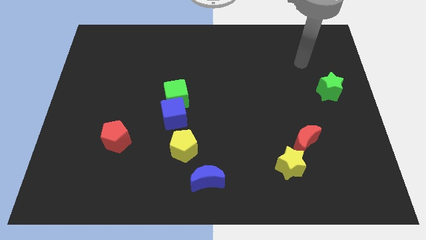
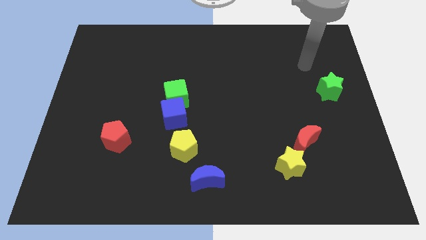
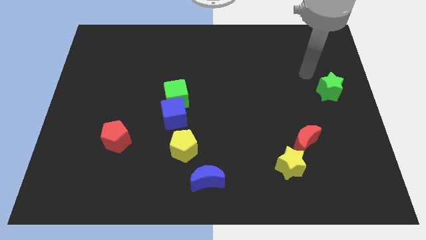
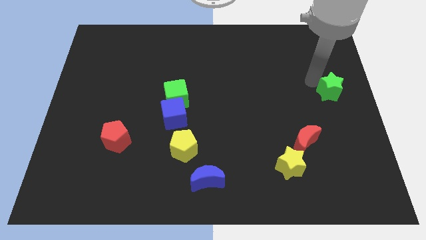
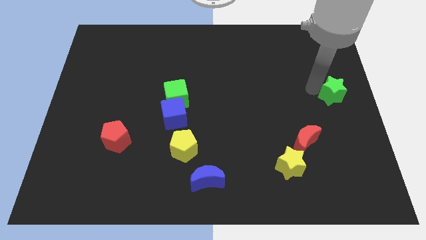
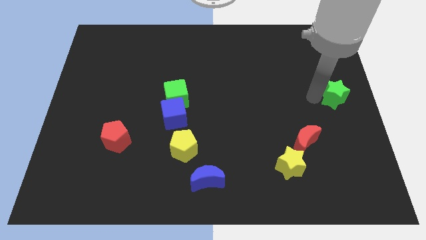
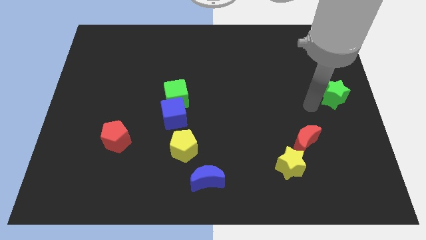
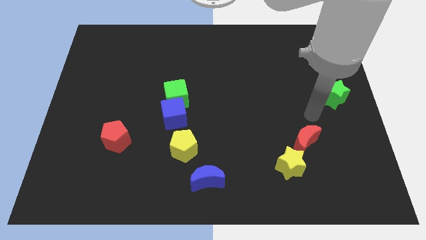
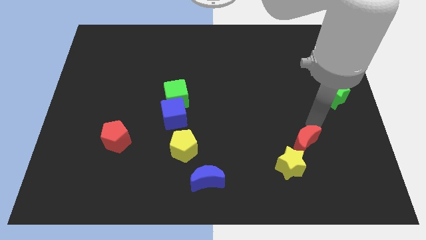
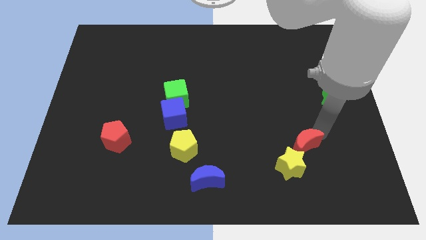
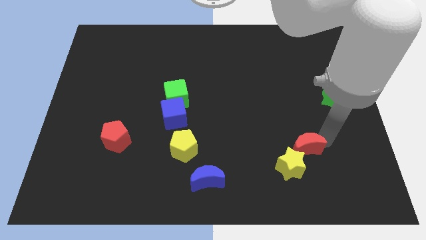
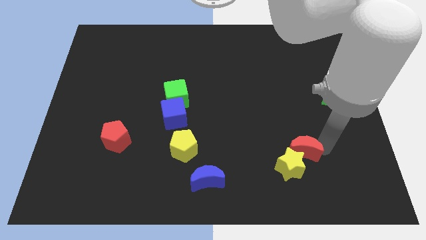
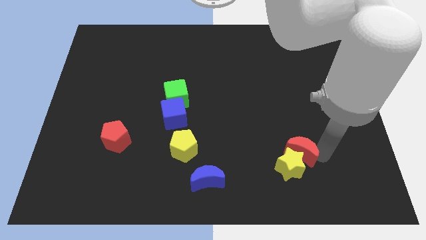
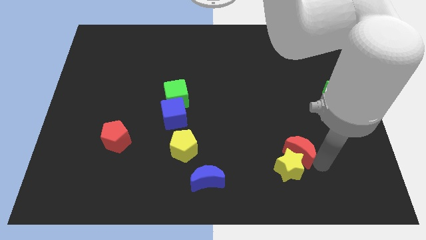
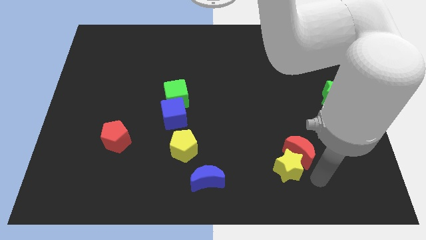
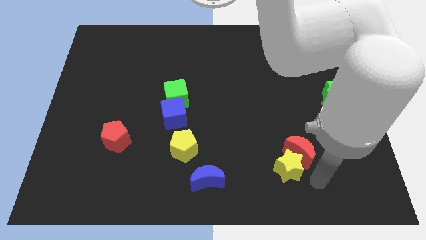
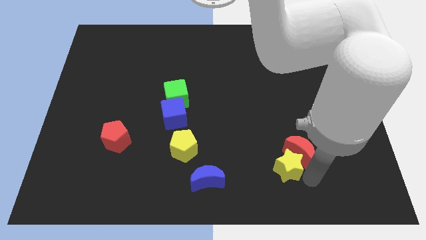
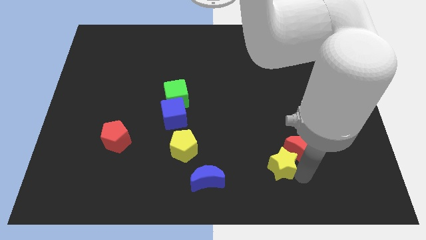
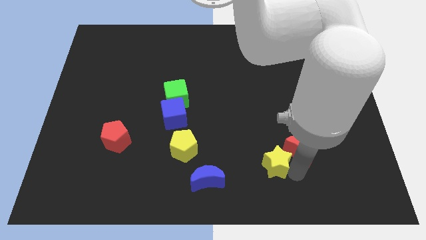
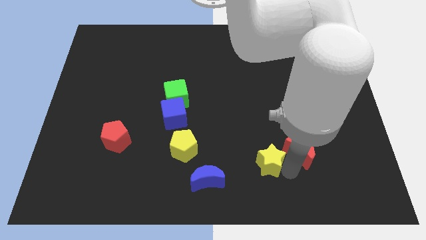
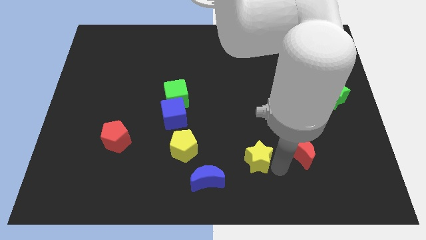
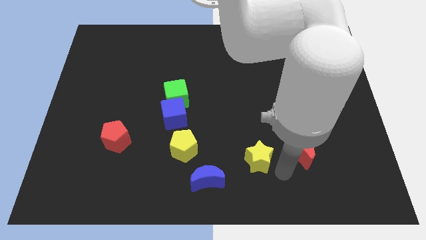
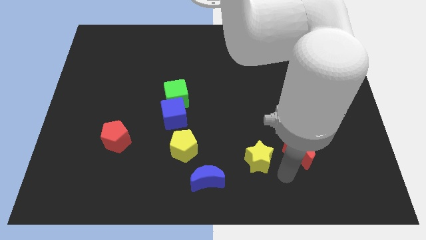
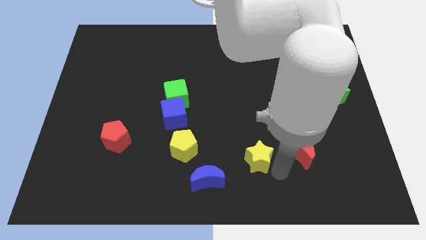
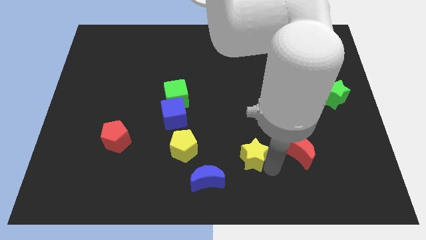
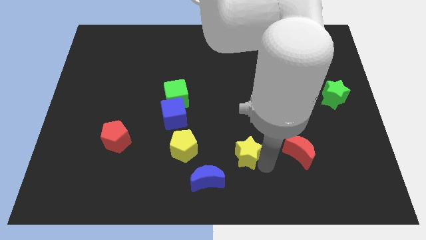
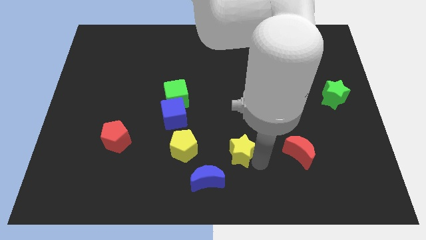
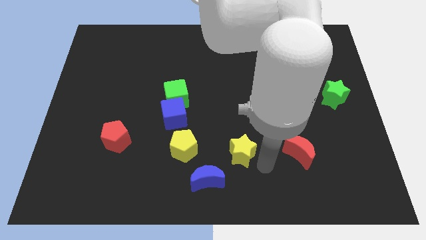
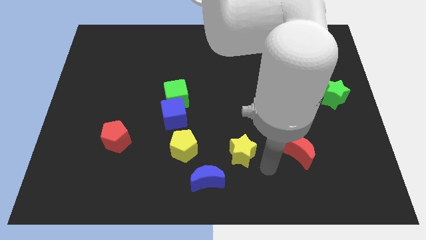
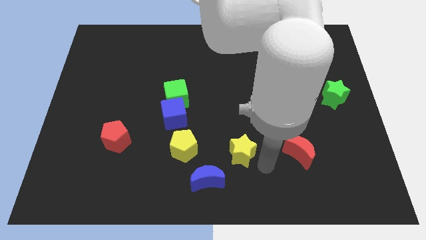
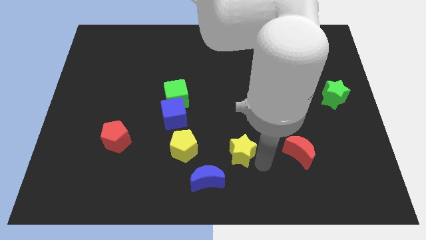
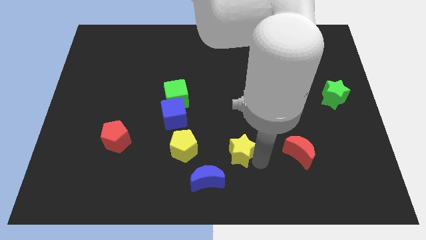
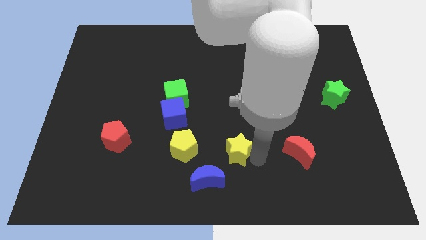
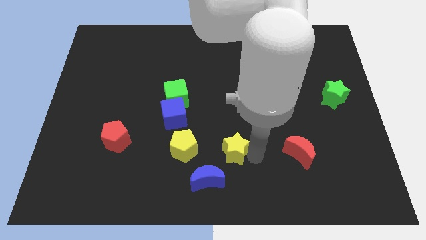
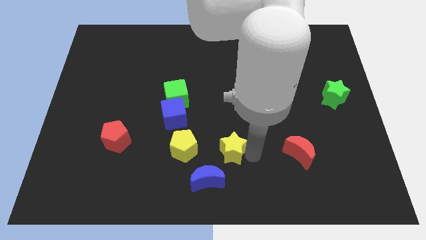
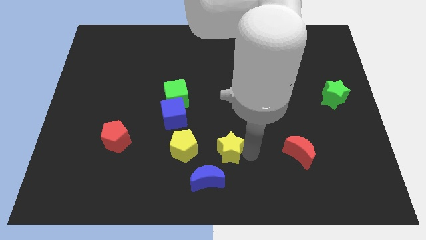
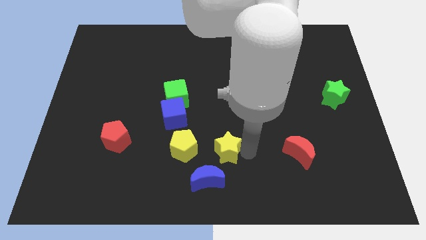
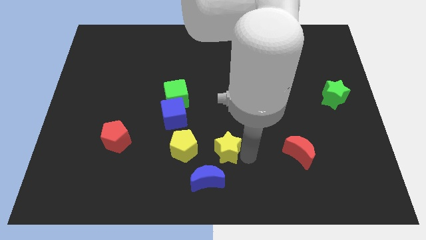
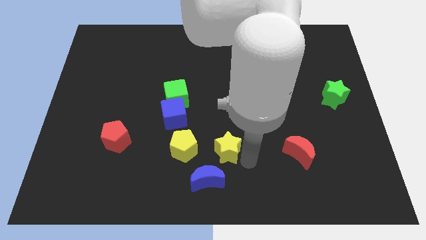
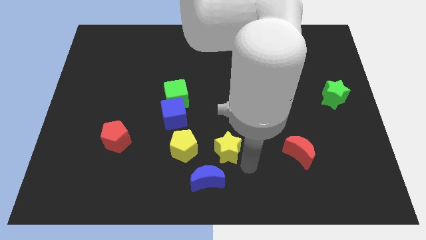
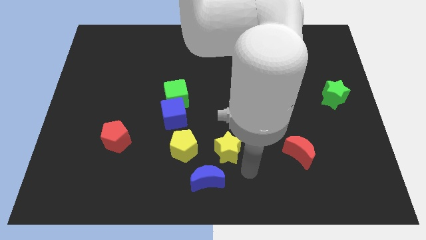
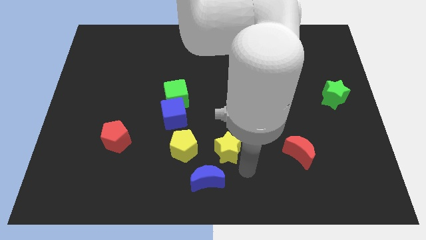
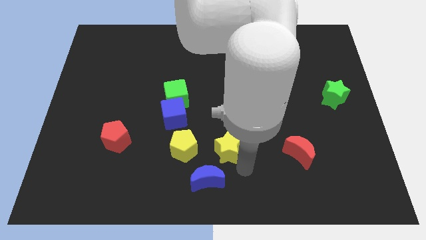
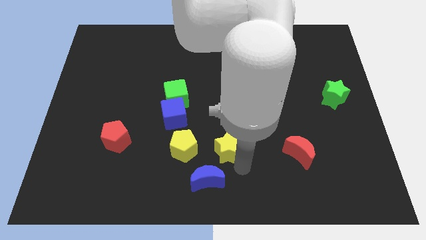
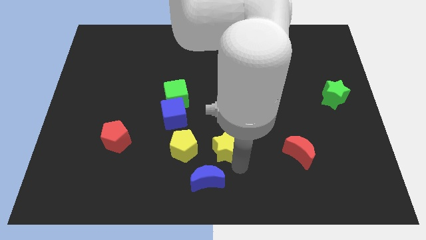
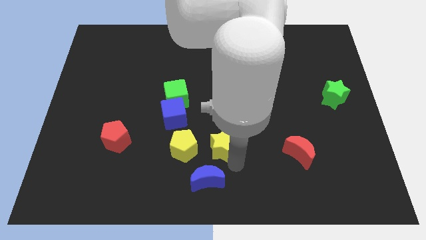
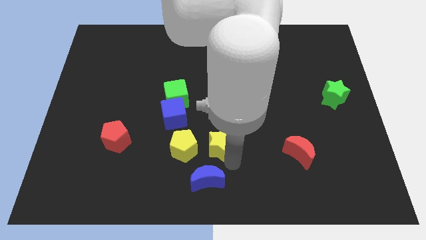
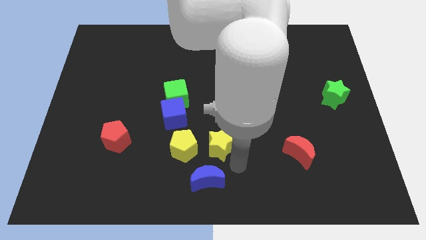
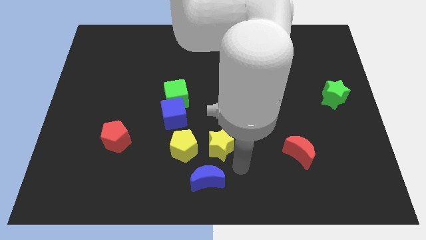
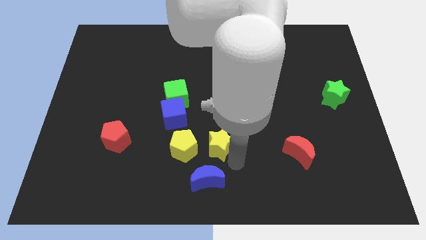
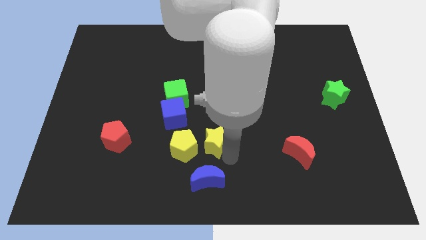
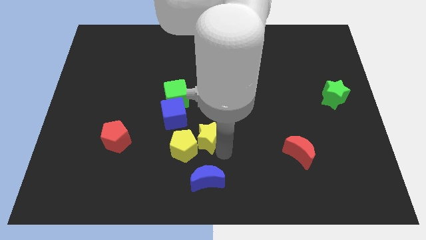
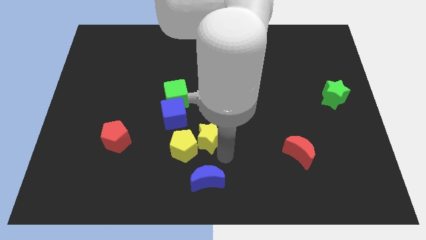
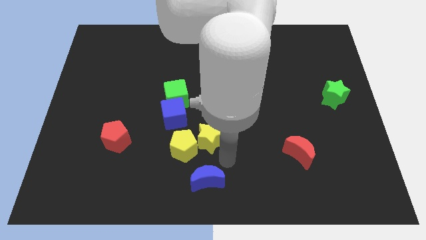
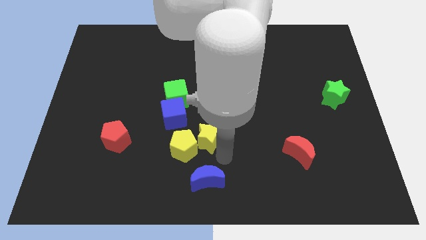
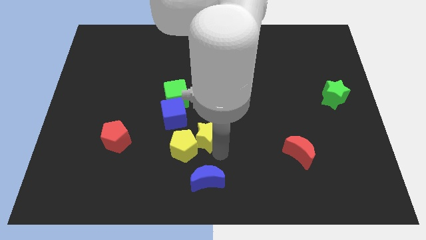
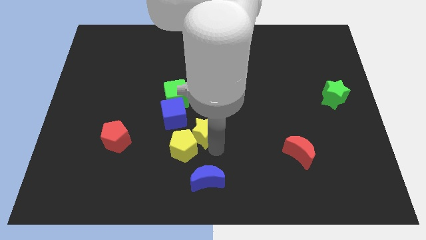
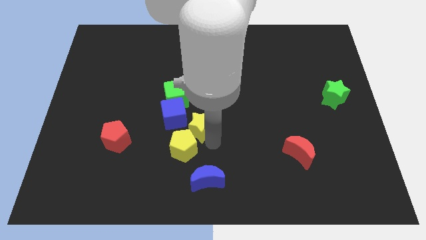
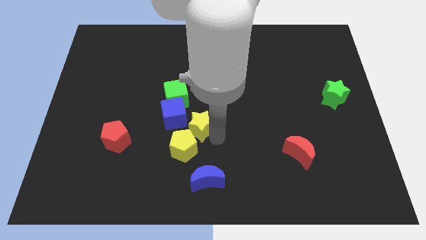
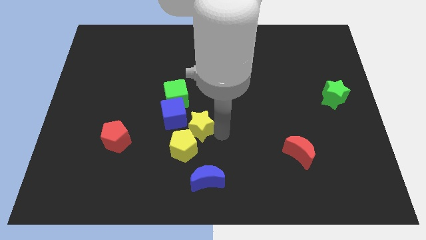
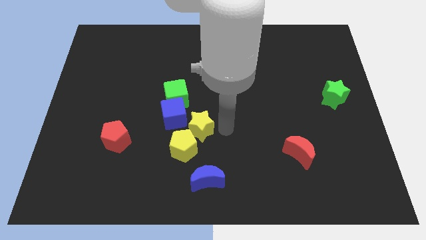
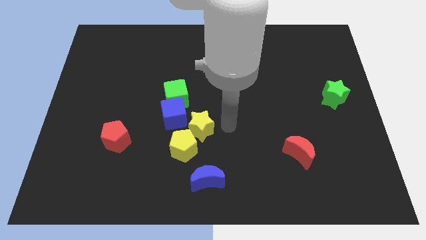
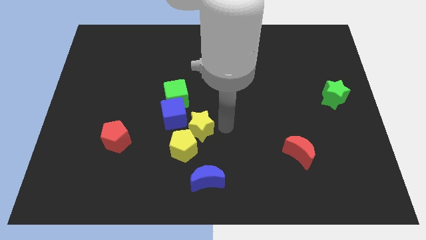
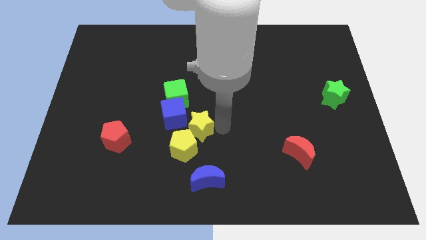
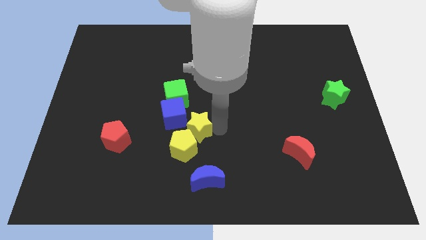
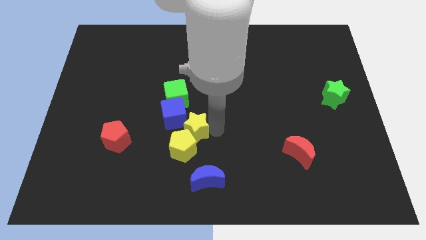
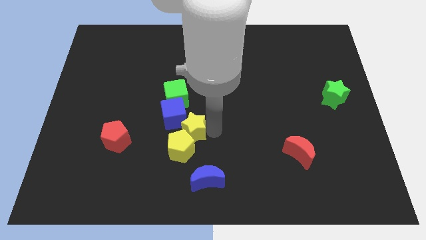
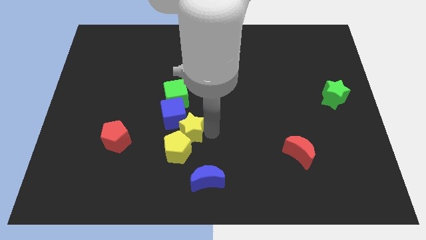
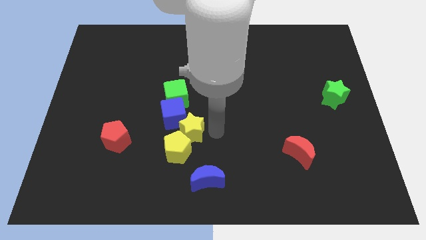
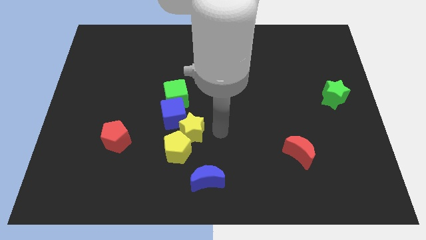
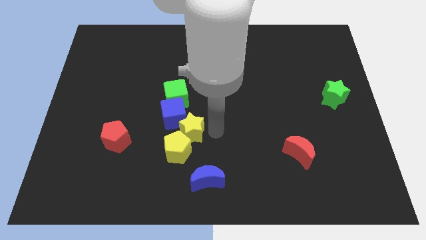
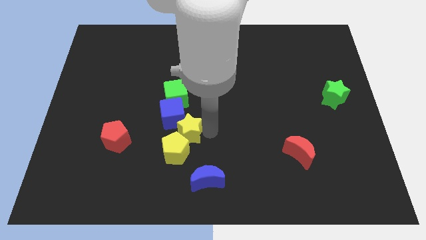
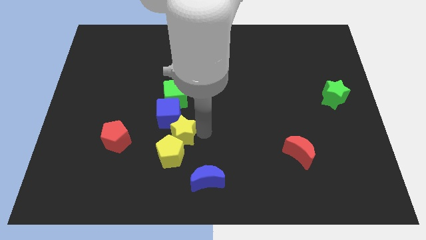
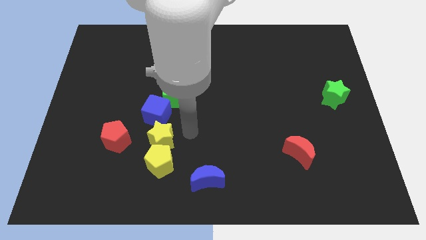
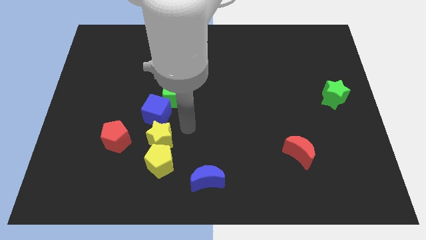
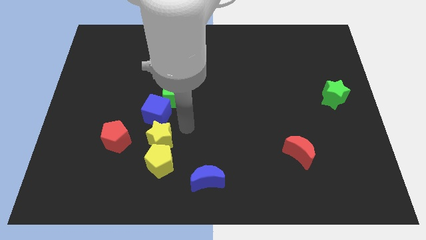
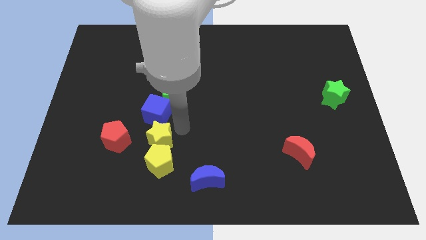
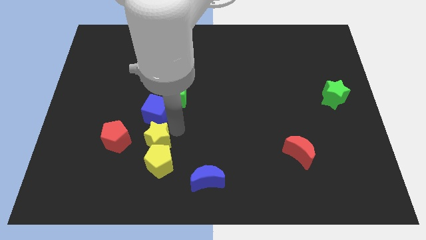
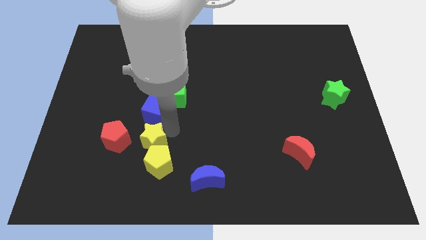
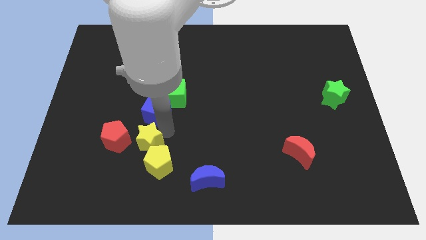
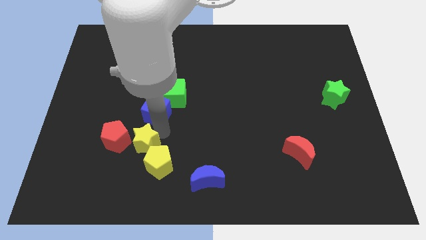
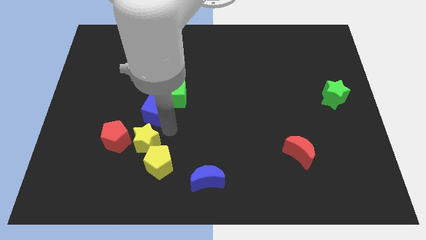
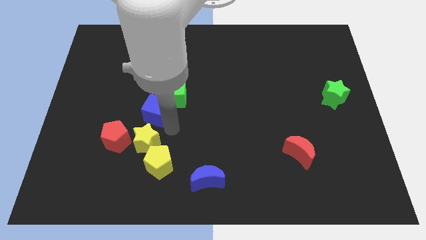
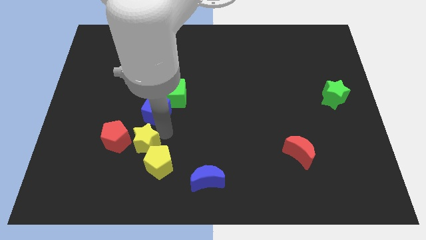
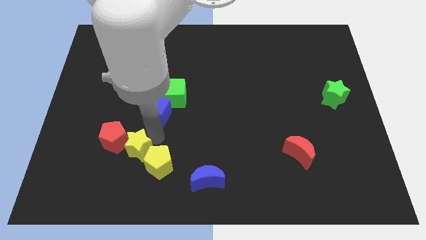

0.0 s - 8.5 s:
push the yellow star just left of the yellow pentagon
